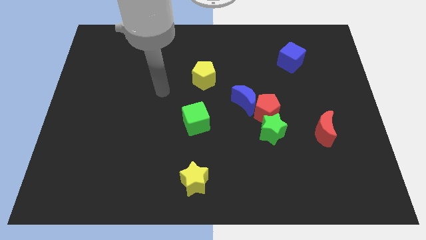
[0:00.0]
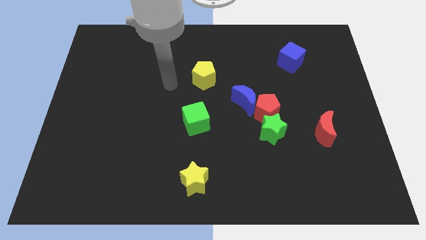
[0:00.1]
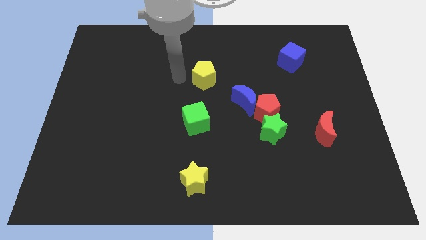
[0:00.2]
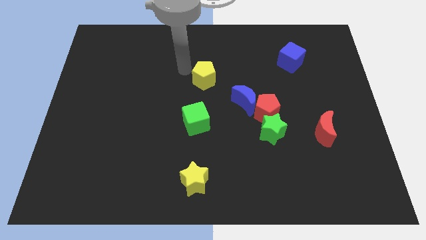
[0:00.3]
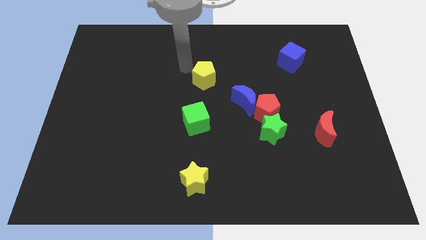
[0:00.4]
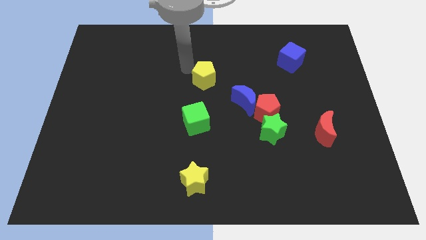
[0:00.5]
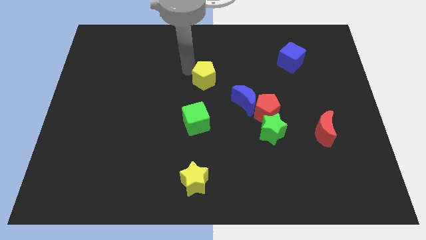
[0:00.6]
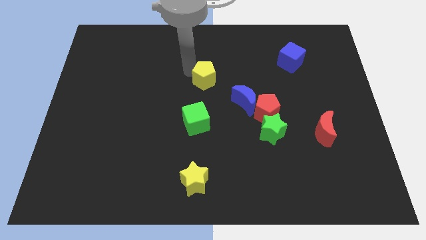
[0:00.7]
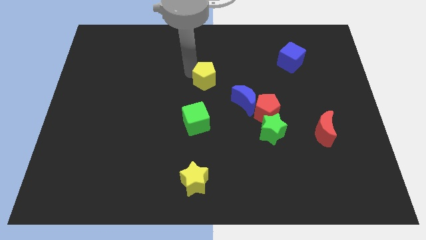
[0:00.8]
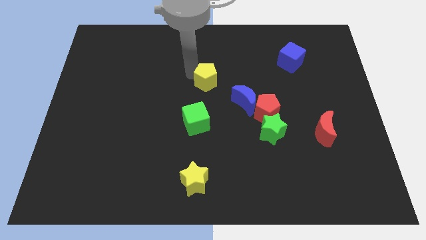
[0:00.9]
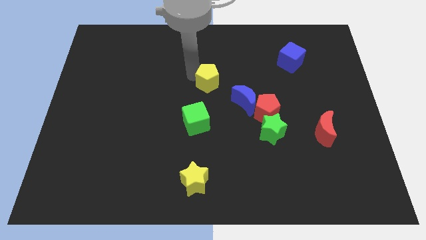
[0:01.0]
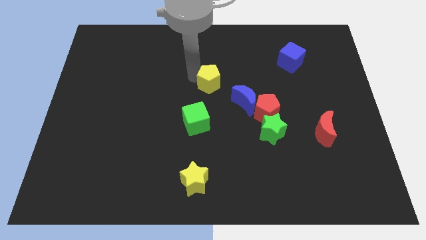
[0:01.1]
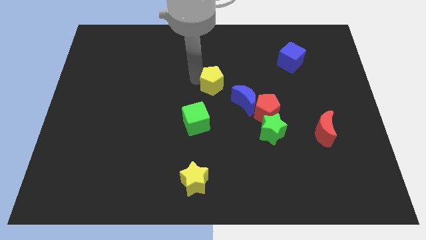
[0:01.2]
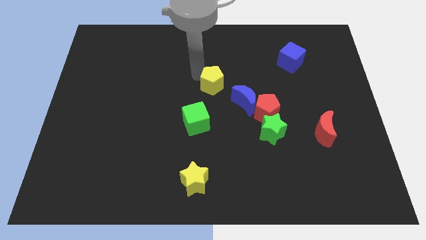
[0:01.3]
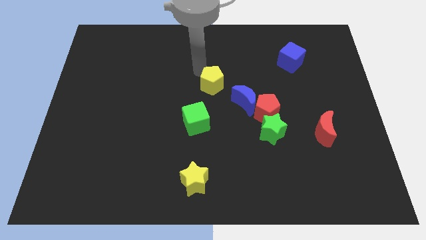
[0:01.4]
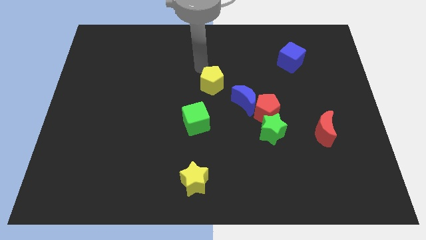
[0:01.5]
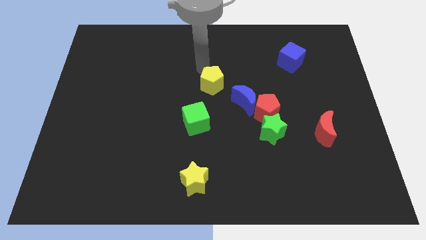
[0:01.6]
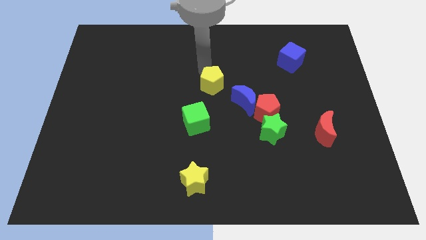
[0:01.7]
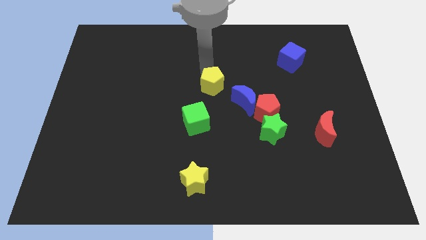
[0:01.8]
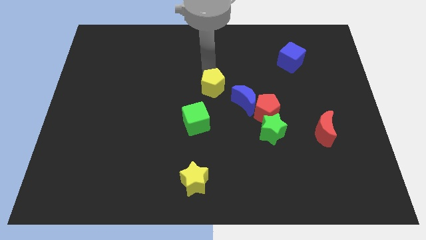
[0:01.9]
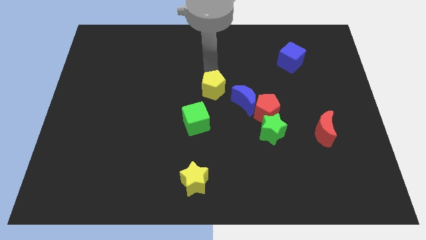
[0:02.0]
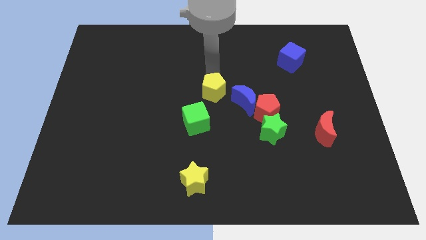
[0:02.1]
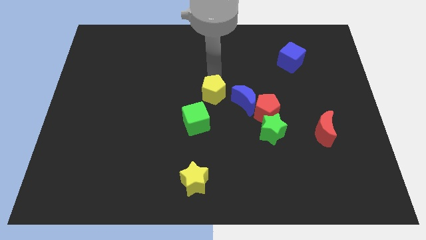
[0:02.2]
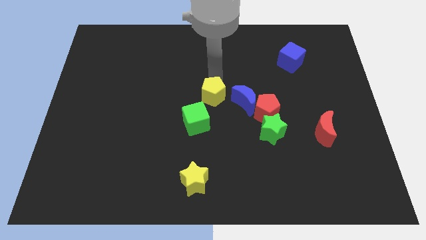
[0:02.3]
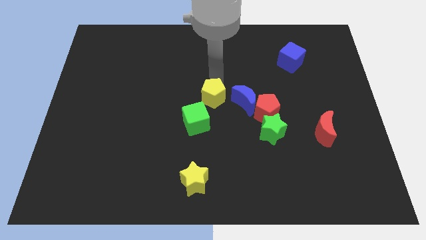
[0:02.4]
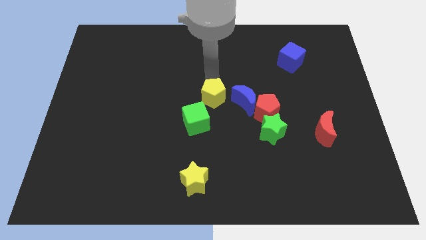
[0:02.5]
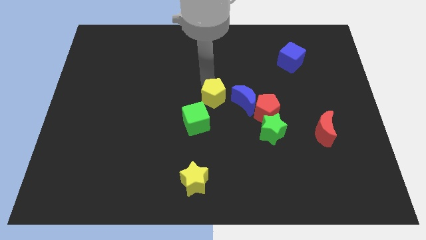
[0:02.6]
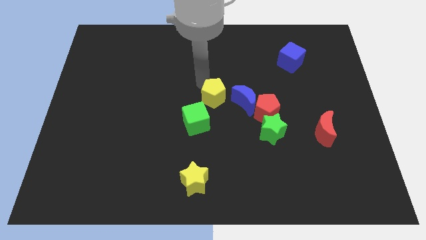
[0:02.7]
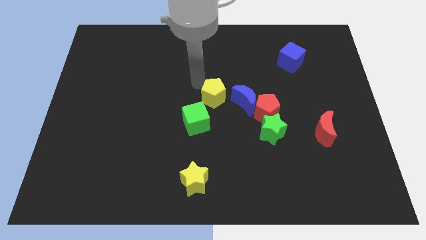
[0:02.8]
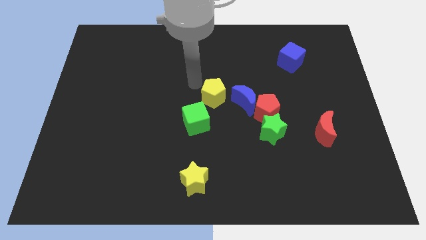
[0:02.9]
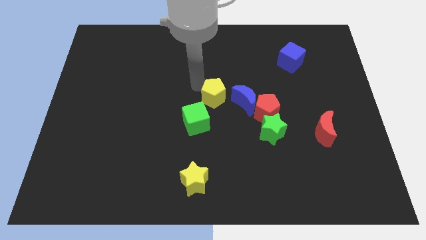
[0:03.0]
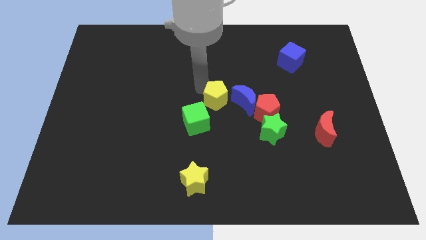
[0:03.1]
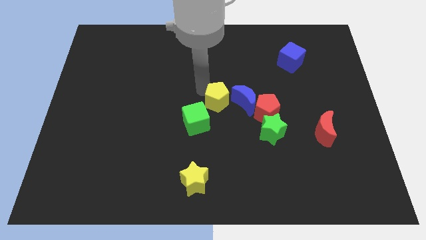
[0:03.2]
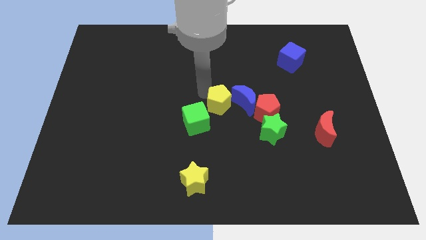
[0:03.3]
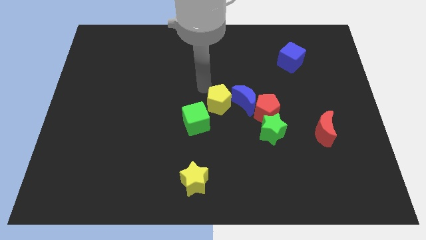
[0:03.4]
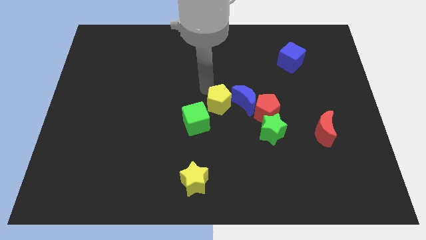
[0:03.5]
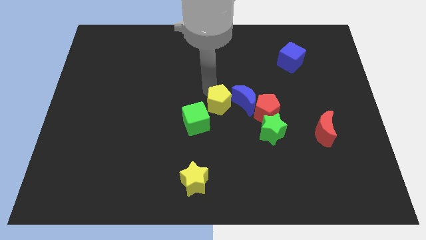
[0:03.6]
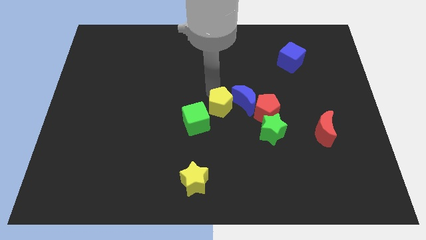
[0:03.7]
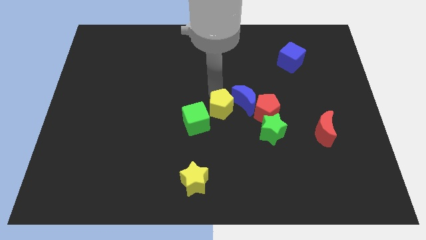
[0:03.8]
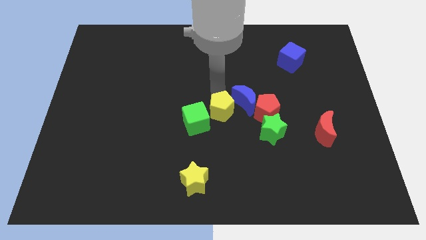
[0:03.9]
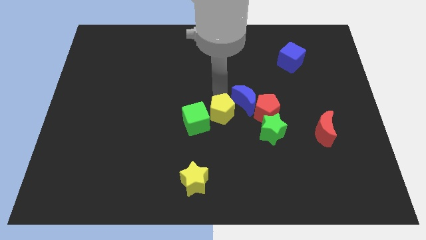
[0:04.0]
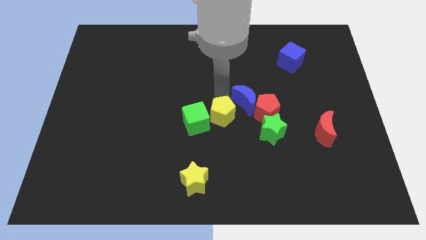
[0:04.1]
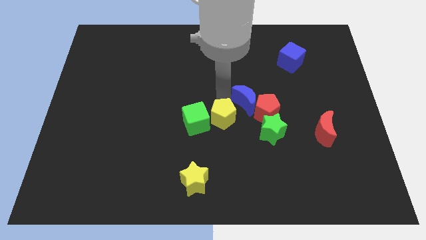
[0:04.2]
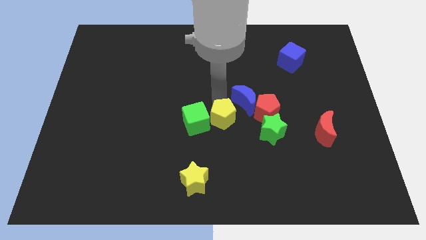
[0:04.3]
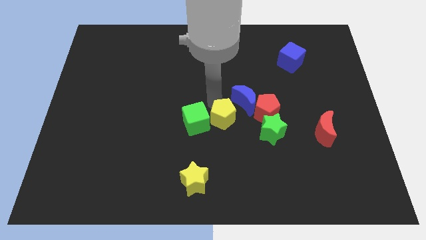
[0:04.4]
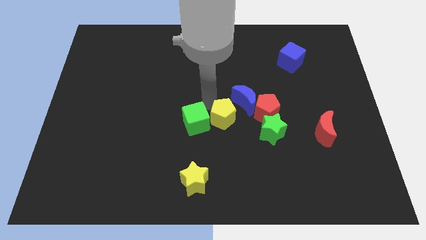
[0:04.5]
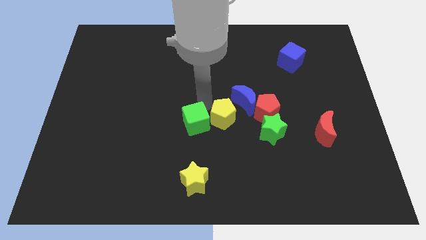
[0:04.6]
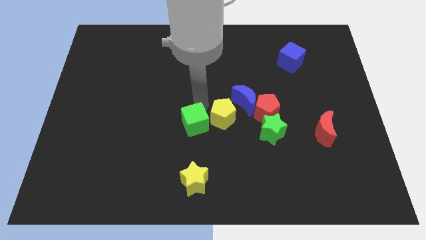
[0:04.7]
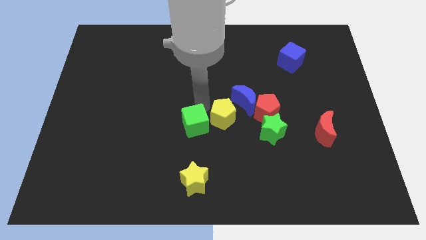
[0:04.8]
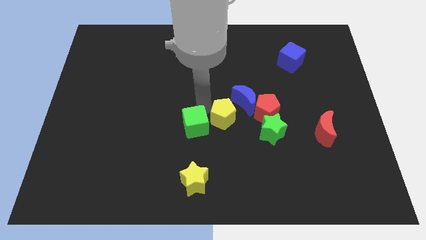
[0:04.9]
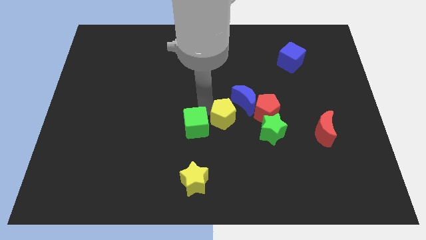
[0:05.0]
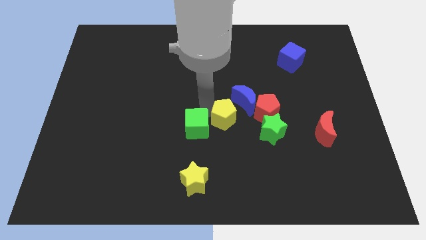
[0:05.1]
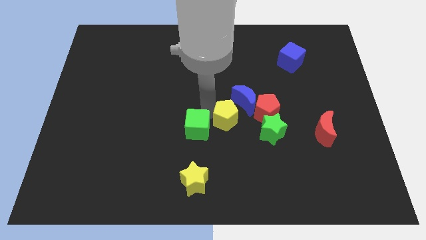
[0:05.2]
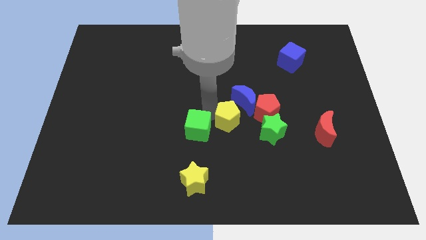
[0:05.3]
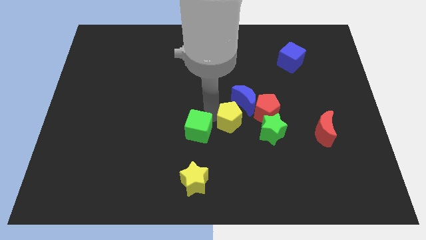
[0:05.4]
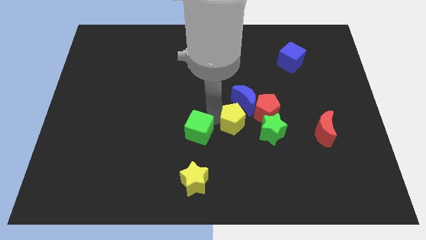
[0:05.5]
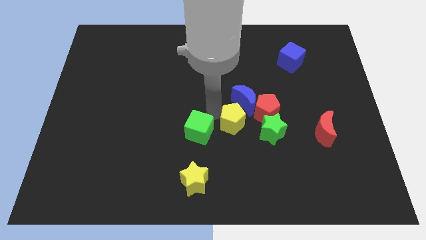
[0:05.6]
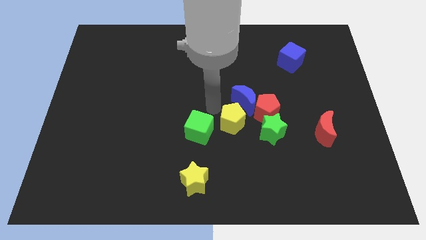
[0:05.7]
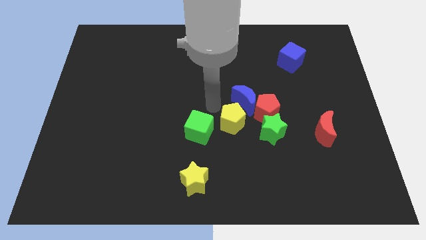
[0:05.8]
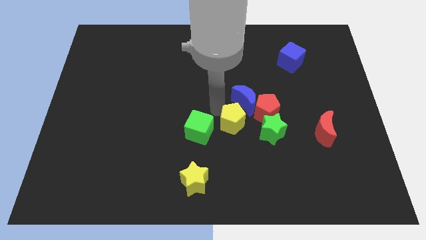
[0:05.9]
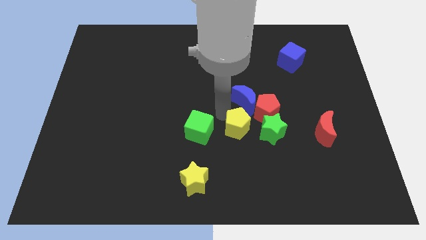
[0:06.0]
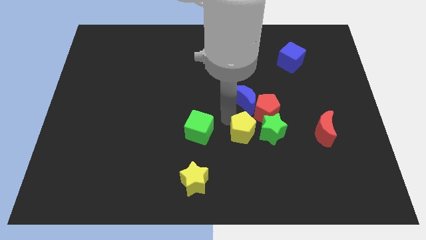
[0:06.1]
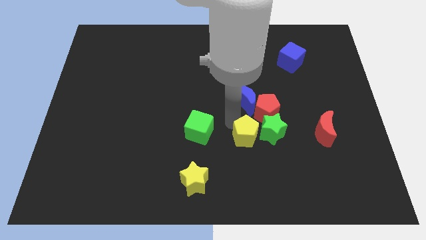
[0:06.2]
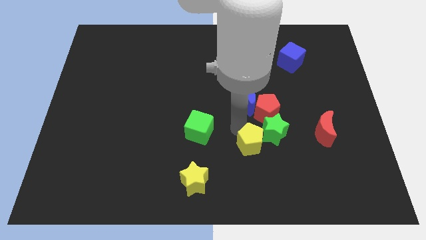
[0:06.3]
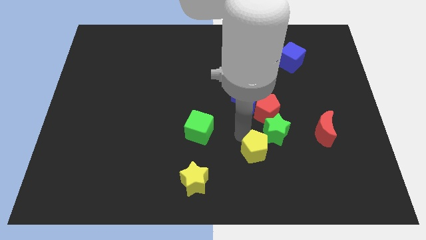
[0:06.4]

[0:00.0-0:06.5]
slide the yellow pentagon downwards and then right

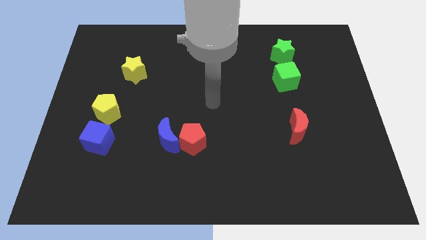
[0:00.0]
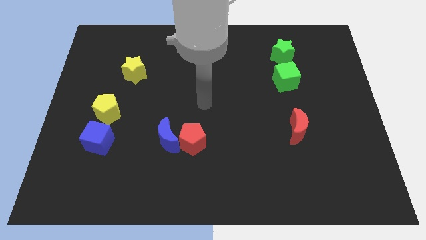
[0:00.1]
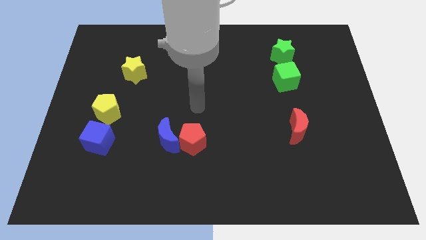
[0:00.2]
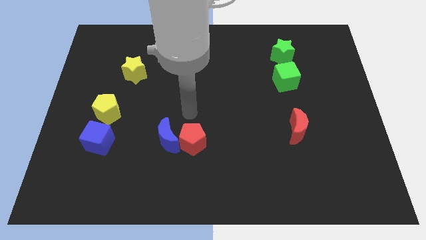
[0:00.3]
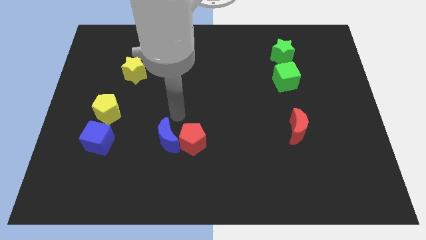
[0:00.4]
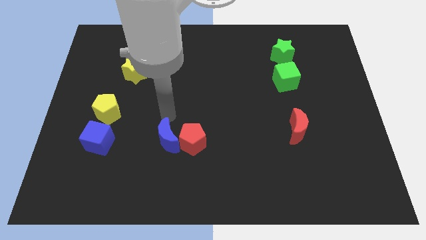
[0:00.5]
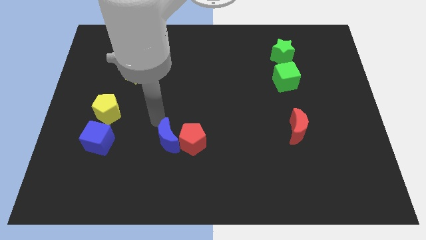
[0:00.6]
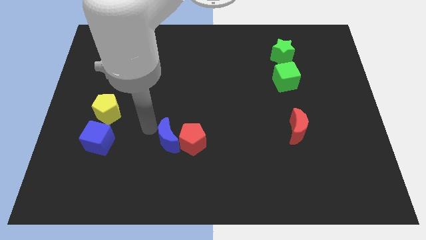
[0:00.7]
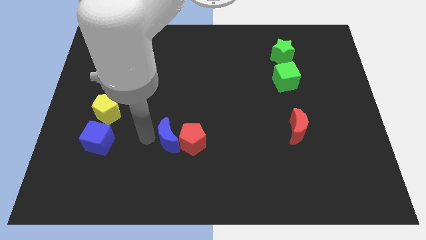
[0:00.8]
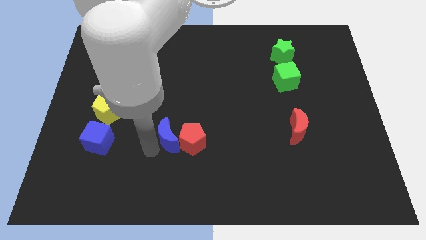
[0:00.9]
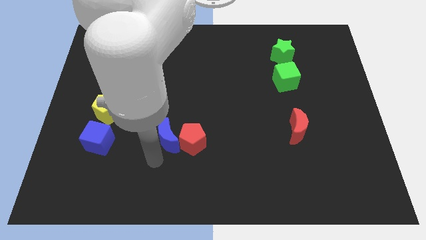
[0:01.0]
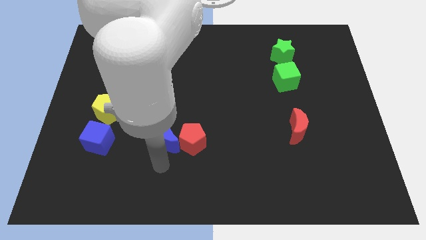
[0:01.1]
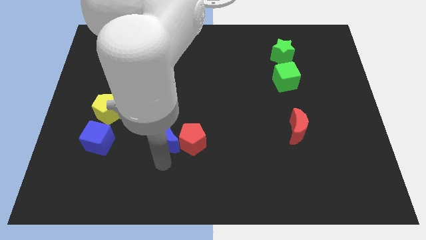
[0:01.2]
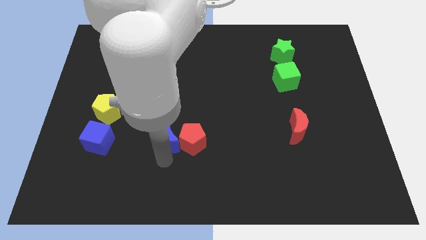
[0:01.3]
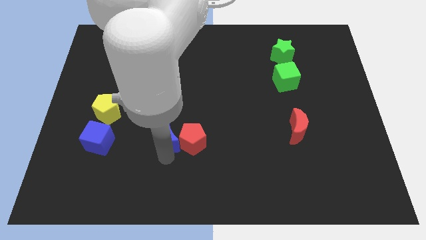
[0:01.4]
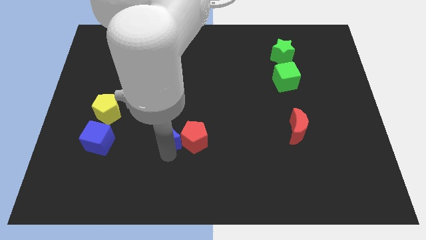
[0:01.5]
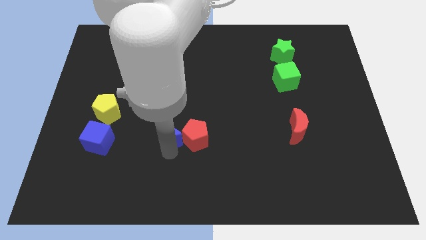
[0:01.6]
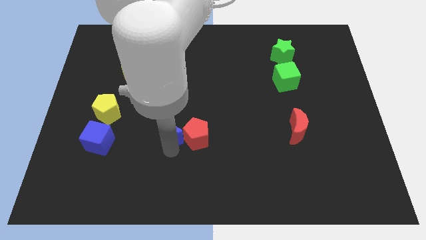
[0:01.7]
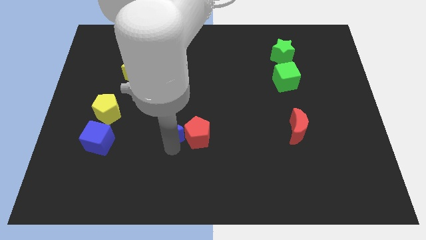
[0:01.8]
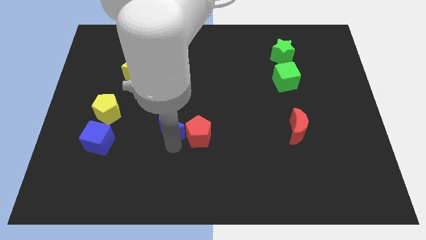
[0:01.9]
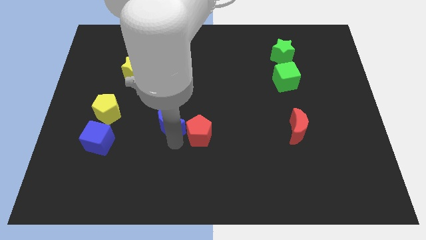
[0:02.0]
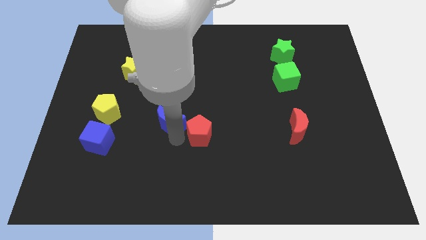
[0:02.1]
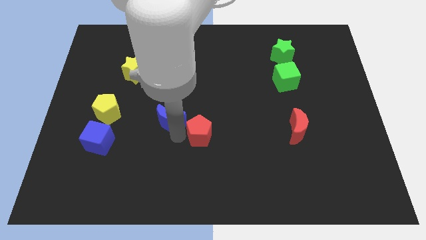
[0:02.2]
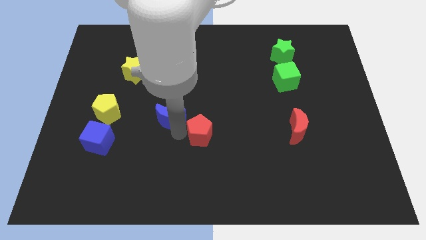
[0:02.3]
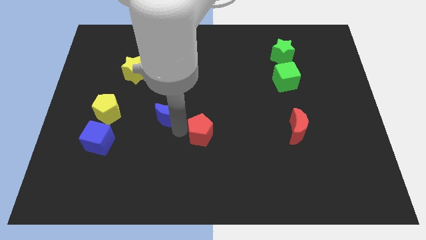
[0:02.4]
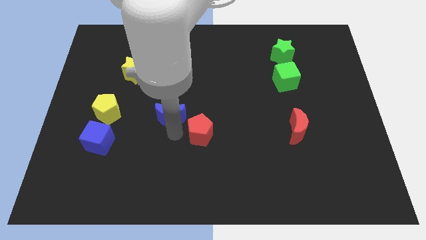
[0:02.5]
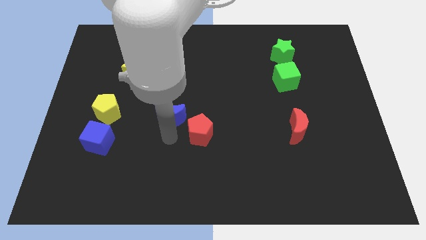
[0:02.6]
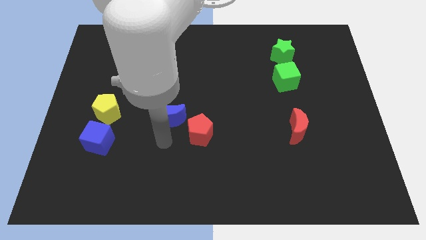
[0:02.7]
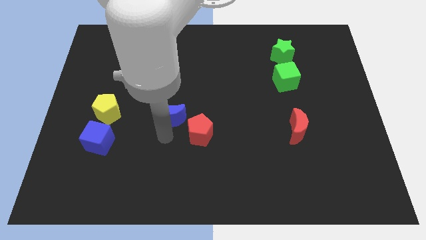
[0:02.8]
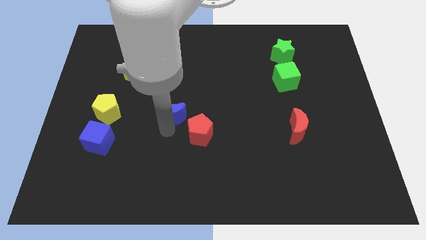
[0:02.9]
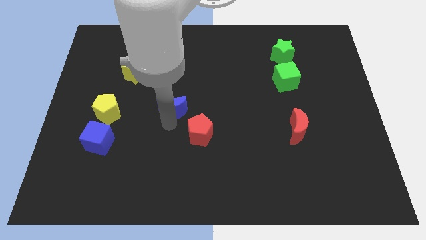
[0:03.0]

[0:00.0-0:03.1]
slightly move the blue moon upwards
